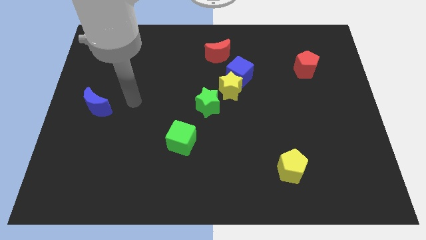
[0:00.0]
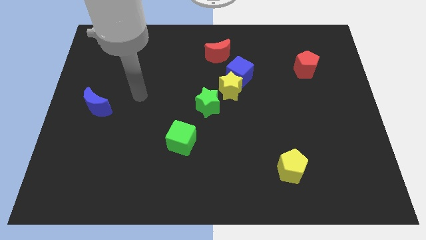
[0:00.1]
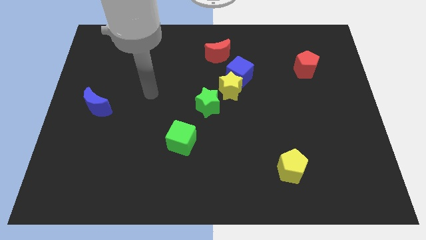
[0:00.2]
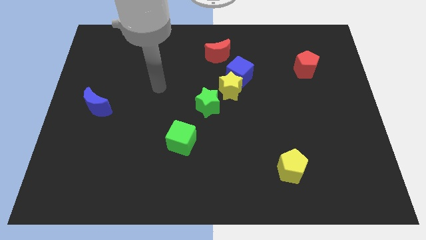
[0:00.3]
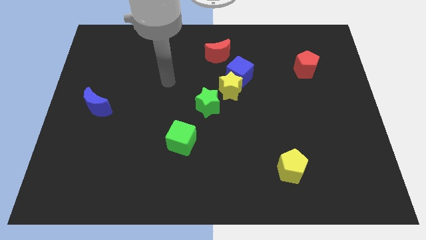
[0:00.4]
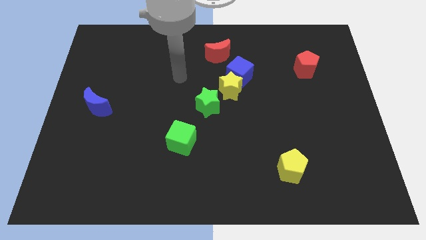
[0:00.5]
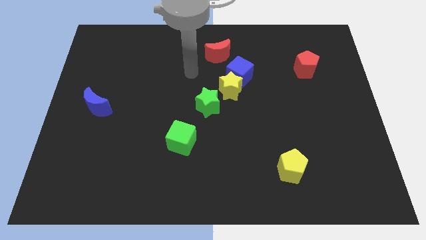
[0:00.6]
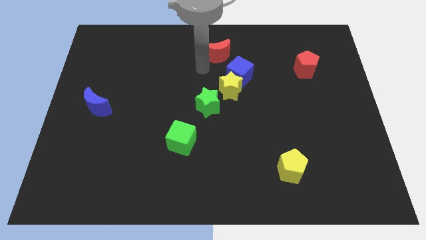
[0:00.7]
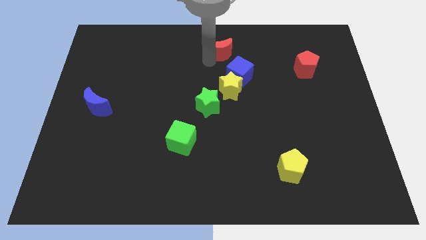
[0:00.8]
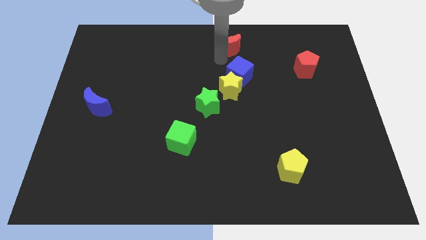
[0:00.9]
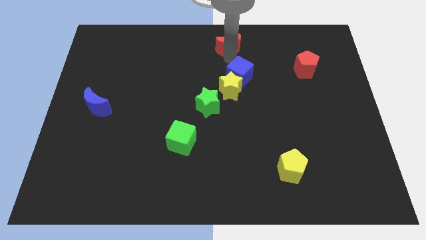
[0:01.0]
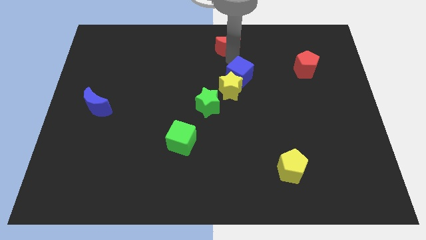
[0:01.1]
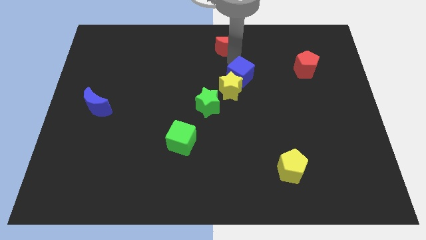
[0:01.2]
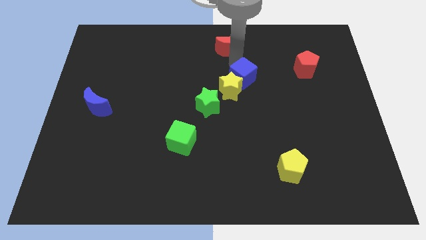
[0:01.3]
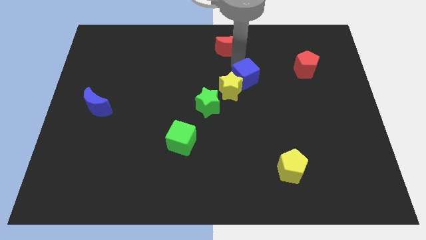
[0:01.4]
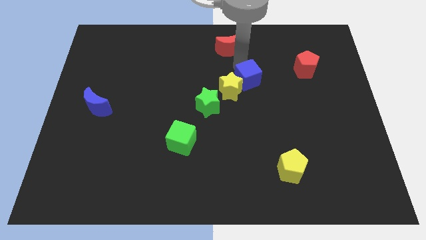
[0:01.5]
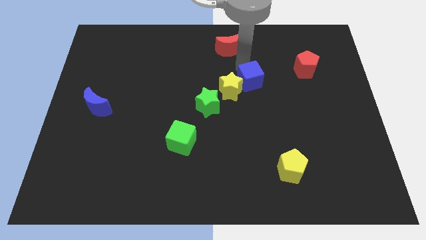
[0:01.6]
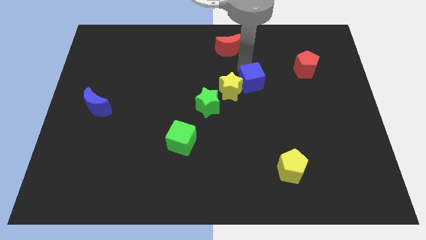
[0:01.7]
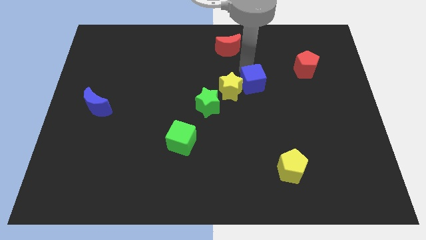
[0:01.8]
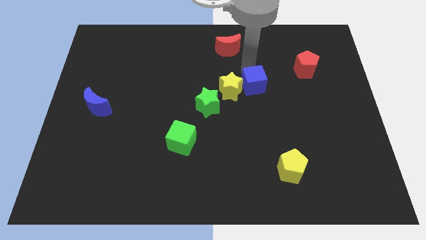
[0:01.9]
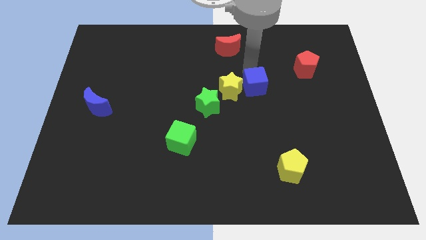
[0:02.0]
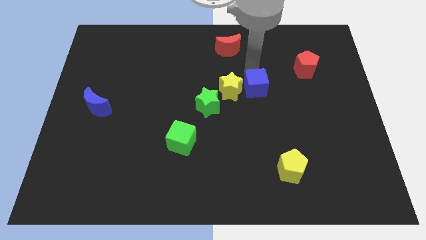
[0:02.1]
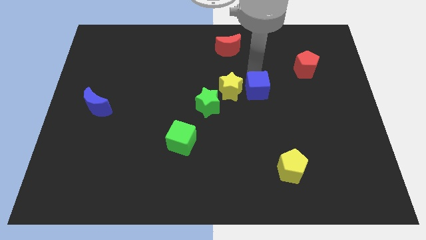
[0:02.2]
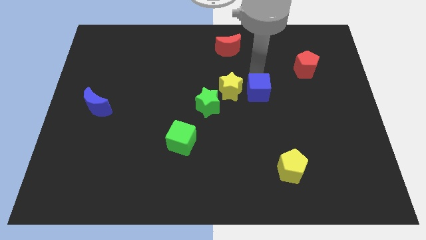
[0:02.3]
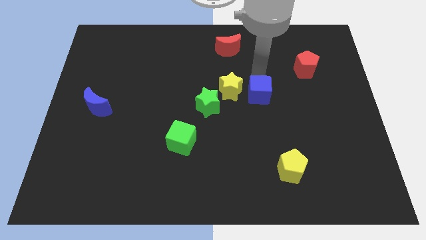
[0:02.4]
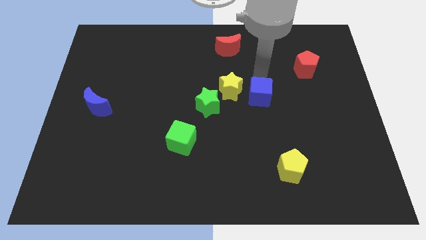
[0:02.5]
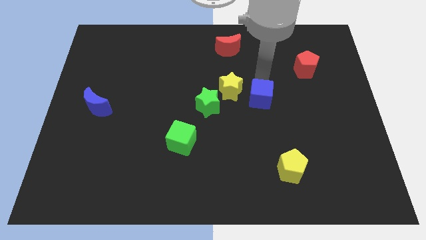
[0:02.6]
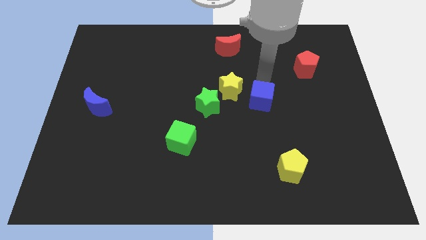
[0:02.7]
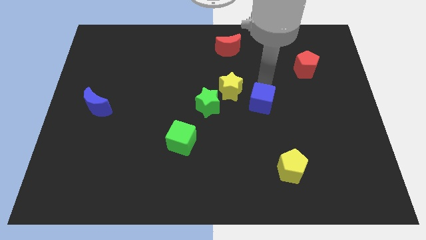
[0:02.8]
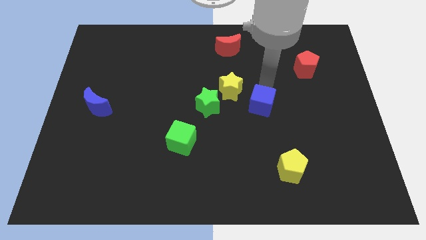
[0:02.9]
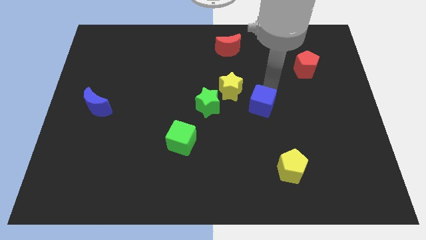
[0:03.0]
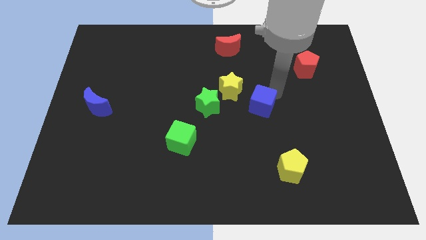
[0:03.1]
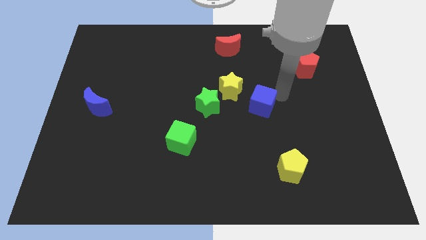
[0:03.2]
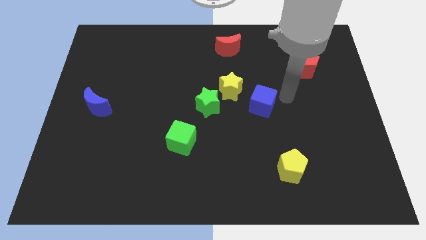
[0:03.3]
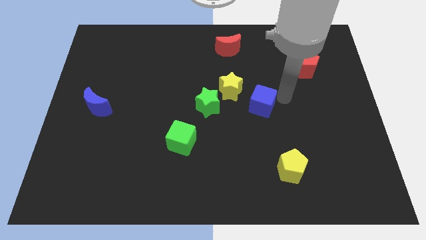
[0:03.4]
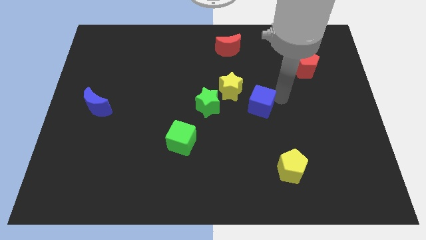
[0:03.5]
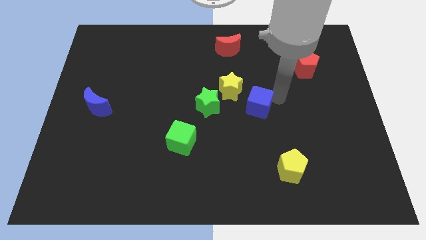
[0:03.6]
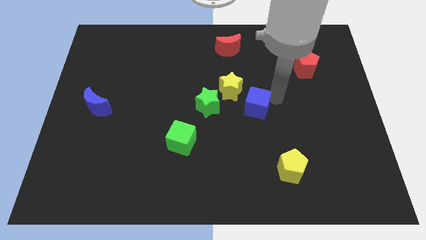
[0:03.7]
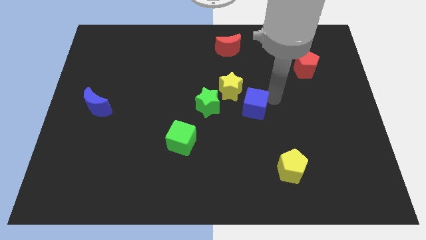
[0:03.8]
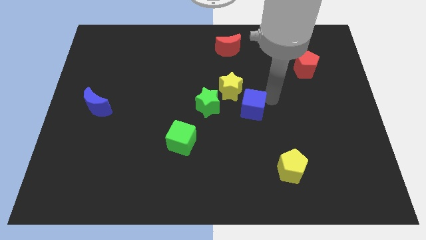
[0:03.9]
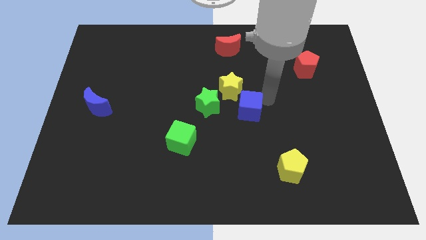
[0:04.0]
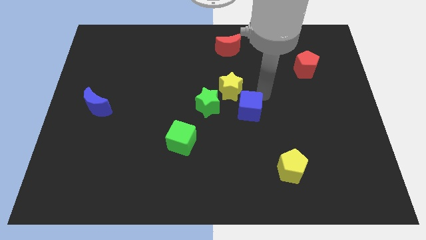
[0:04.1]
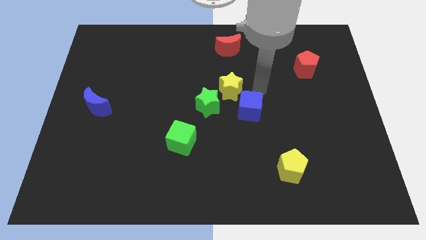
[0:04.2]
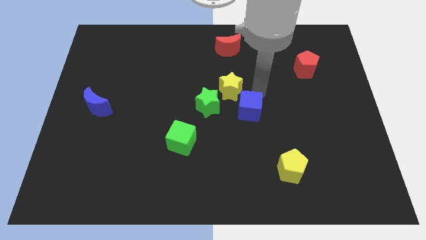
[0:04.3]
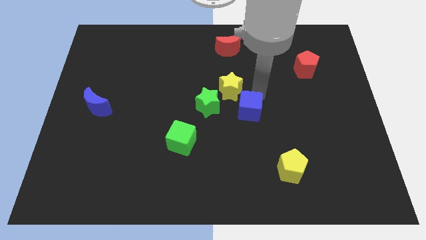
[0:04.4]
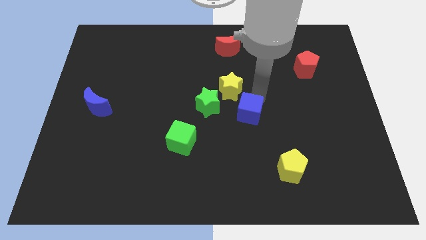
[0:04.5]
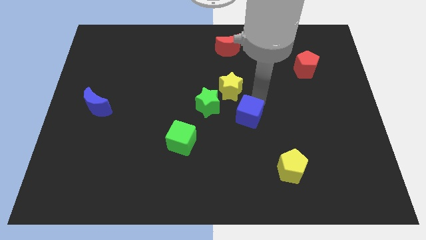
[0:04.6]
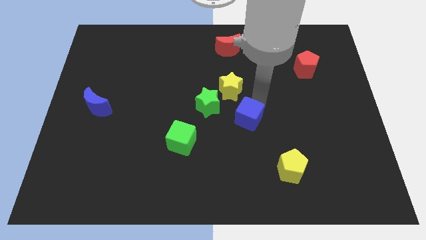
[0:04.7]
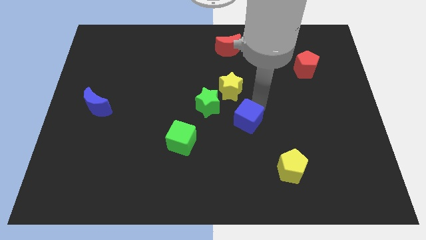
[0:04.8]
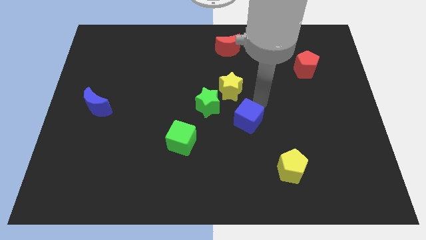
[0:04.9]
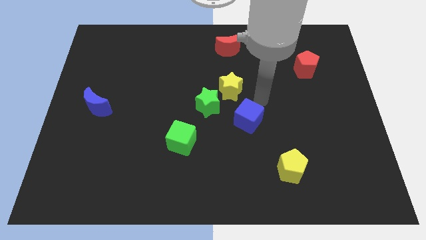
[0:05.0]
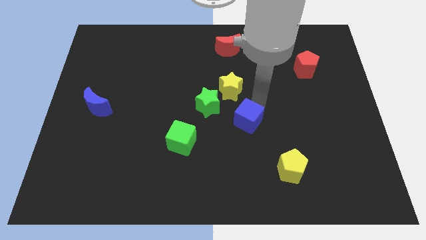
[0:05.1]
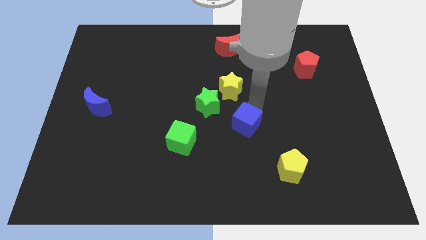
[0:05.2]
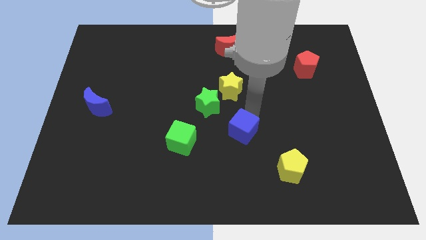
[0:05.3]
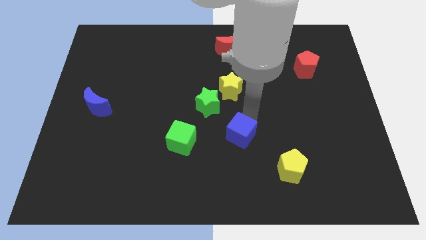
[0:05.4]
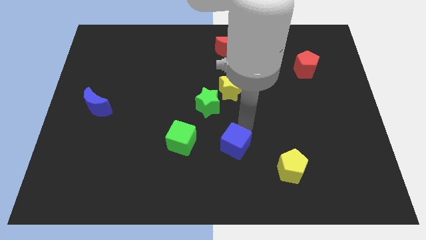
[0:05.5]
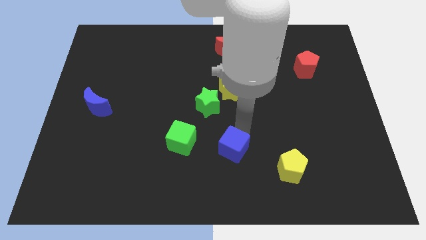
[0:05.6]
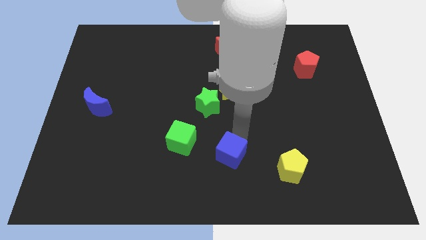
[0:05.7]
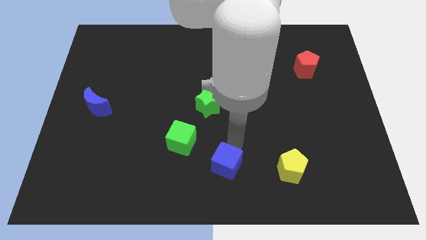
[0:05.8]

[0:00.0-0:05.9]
put the blue cube to the bottom

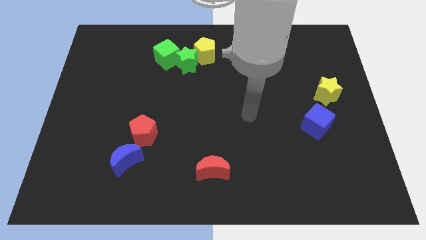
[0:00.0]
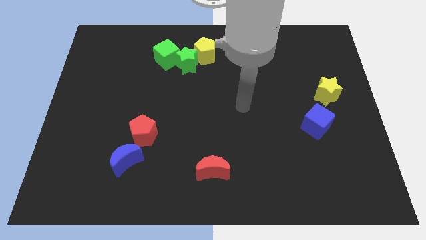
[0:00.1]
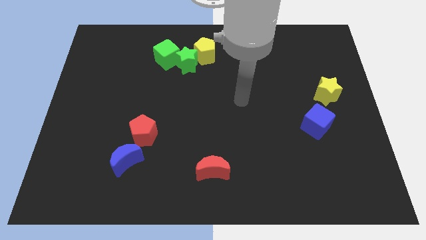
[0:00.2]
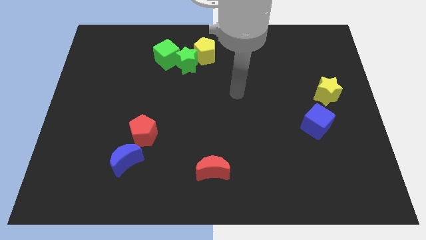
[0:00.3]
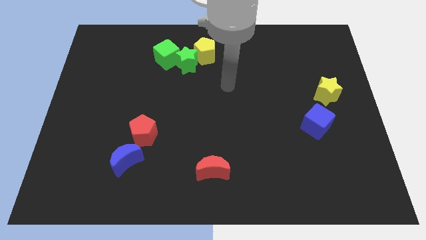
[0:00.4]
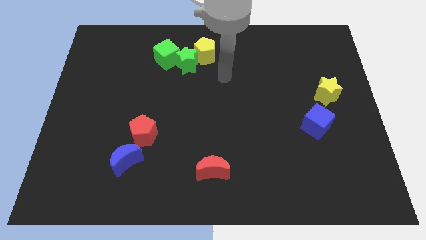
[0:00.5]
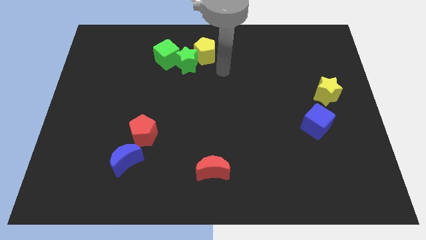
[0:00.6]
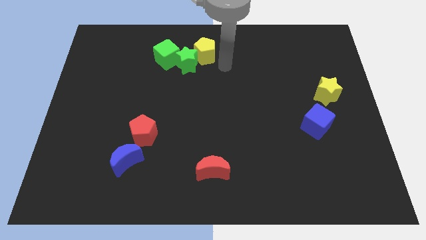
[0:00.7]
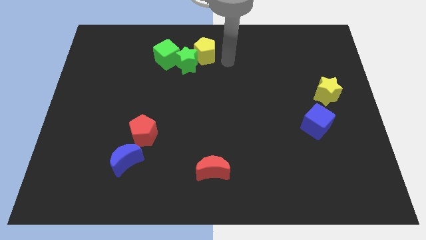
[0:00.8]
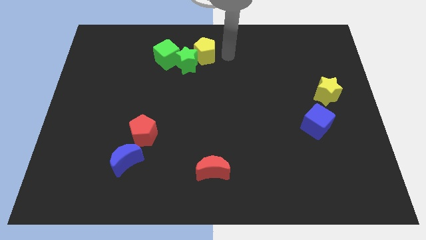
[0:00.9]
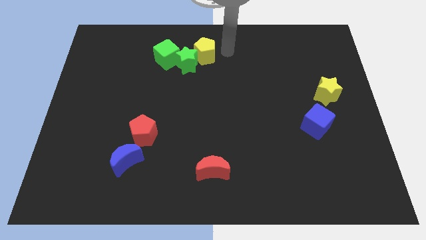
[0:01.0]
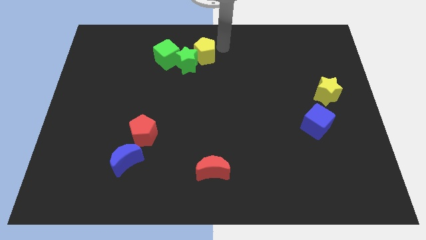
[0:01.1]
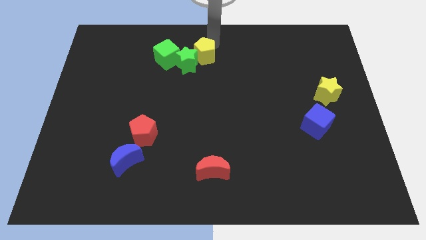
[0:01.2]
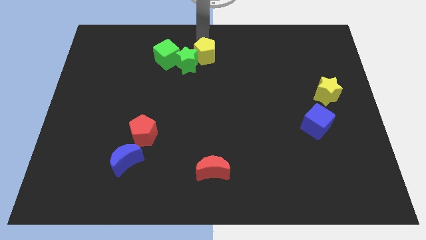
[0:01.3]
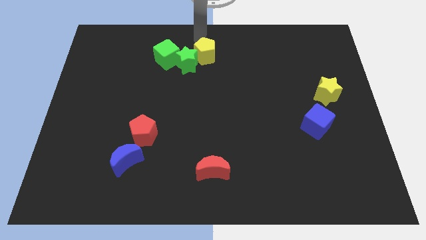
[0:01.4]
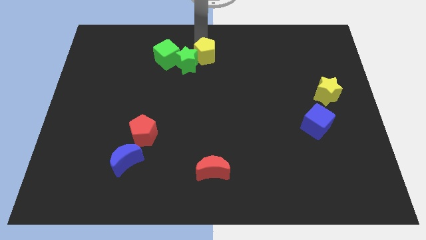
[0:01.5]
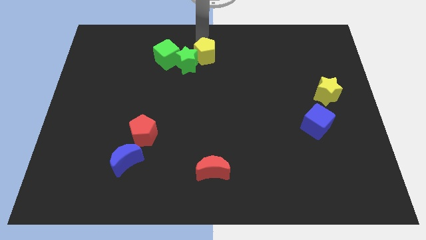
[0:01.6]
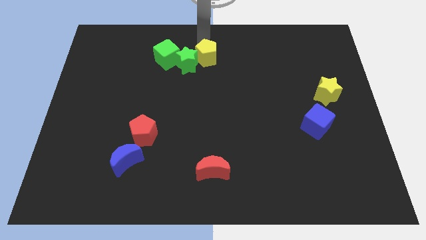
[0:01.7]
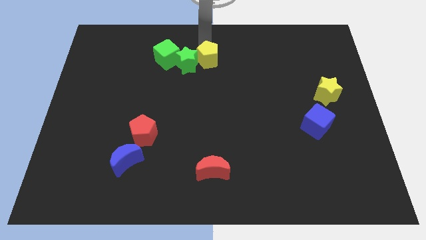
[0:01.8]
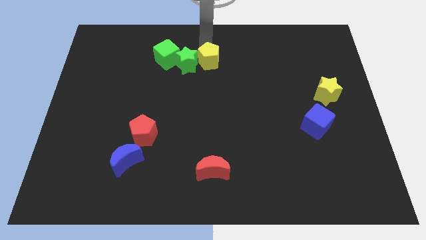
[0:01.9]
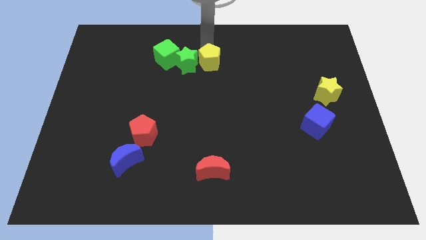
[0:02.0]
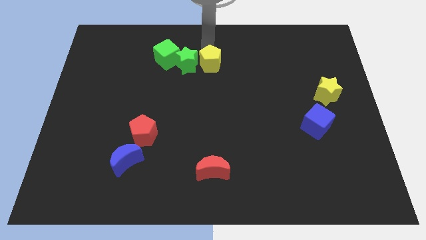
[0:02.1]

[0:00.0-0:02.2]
put the yellow pentagon to the middle
